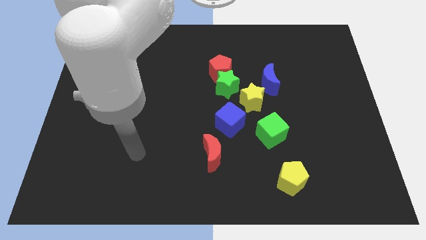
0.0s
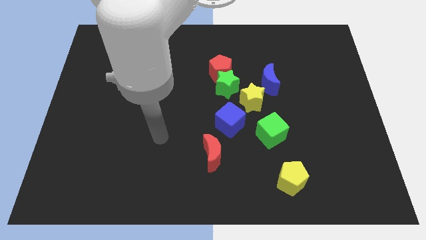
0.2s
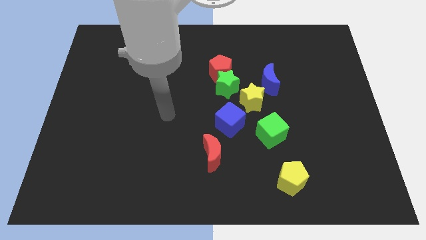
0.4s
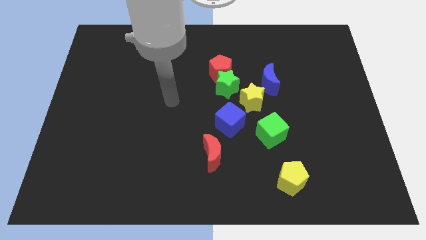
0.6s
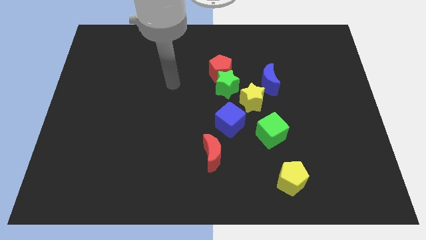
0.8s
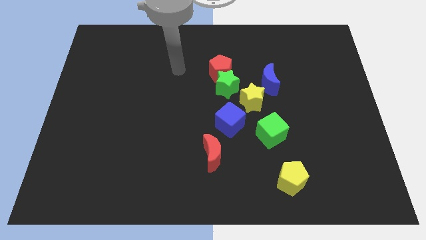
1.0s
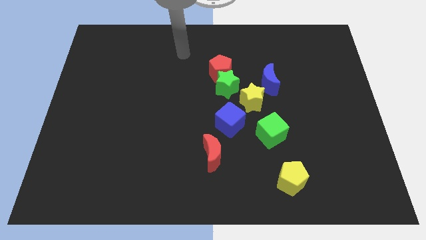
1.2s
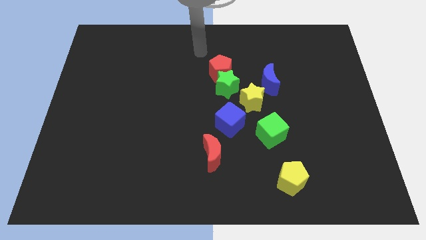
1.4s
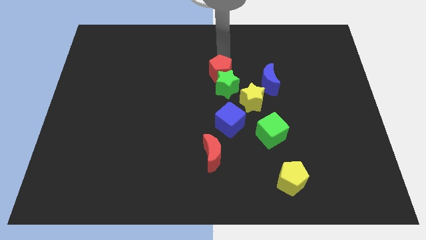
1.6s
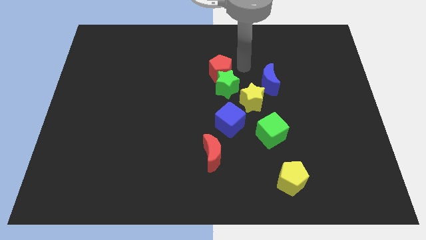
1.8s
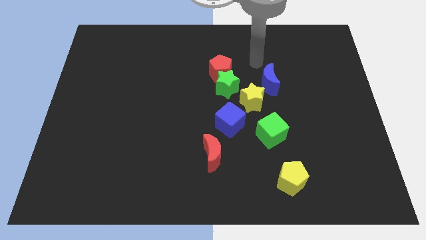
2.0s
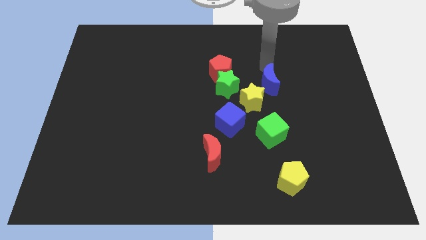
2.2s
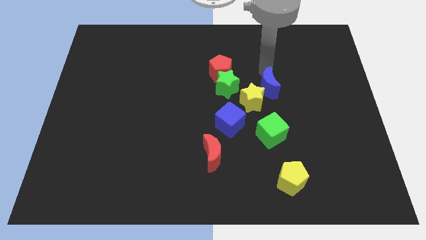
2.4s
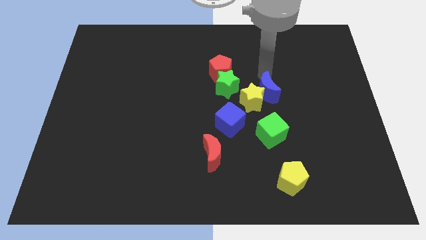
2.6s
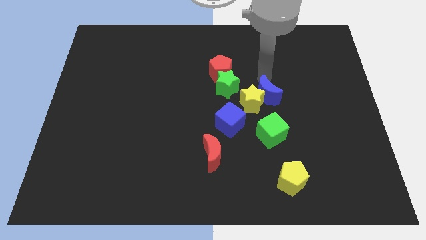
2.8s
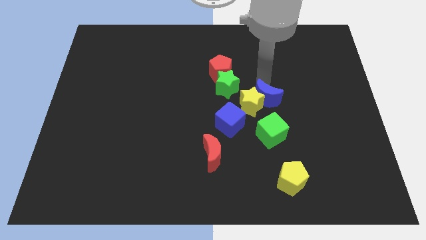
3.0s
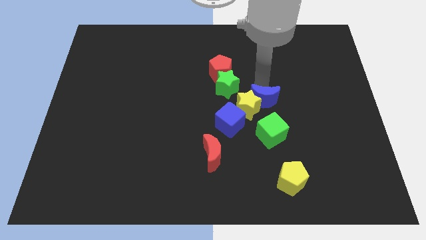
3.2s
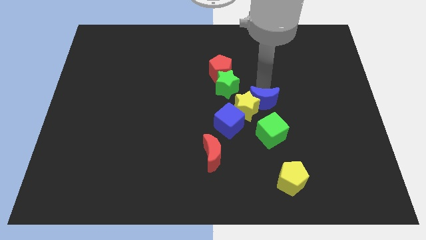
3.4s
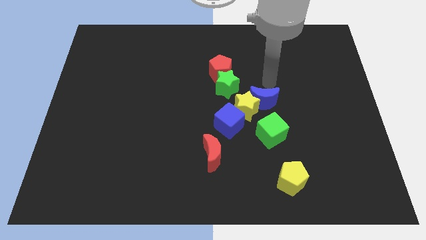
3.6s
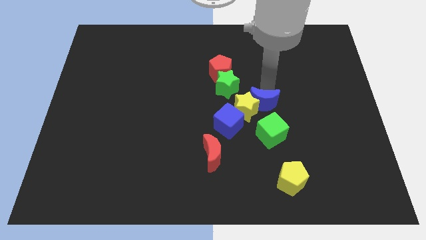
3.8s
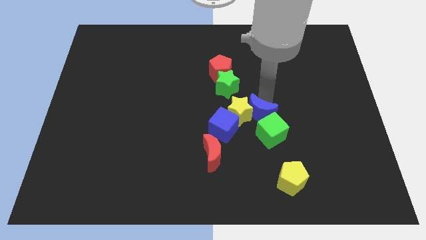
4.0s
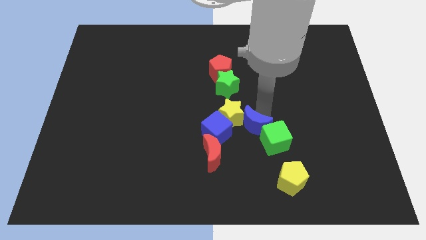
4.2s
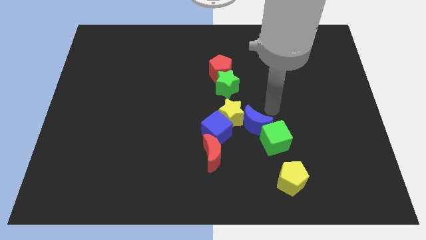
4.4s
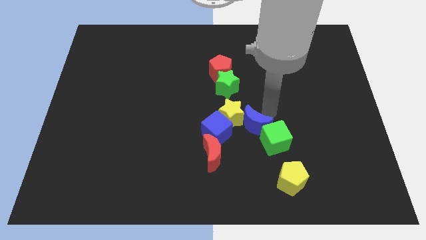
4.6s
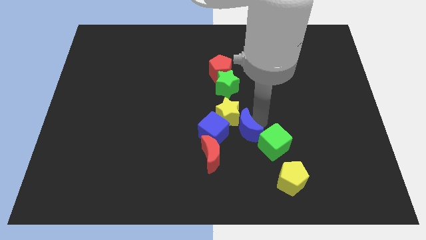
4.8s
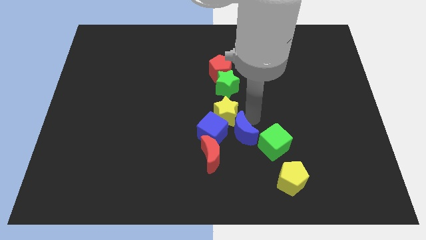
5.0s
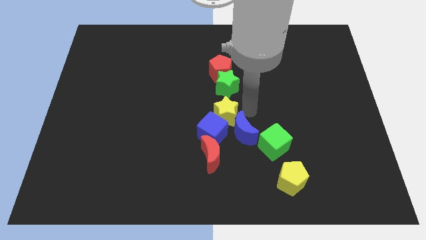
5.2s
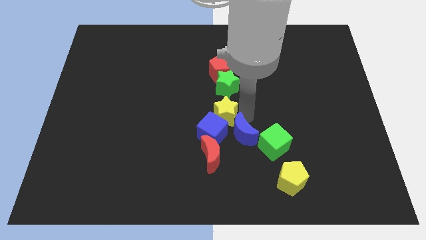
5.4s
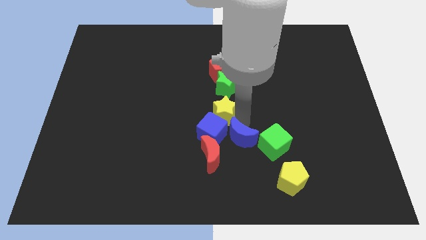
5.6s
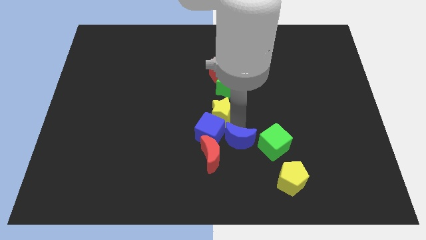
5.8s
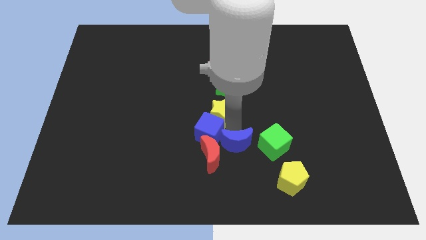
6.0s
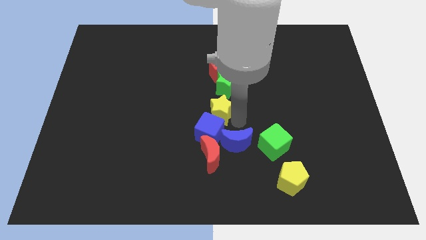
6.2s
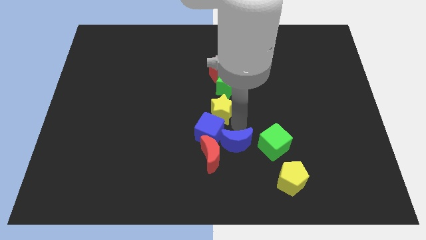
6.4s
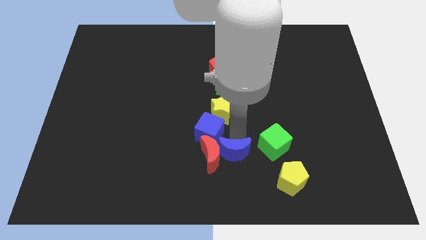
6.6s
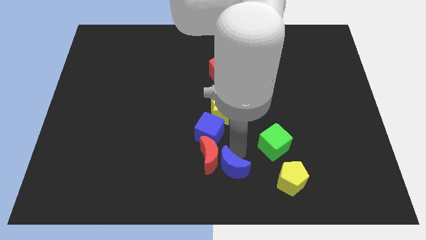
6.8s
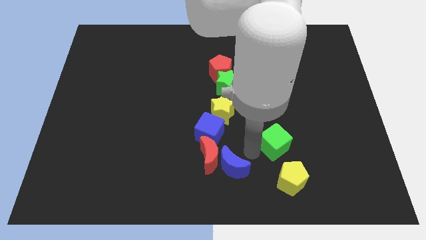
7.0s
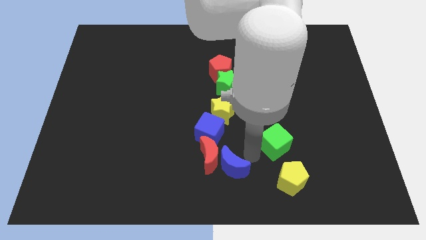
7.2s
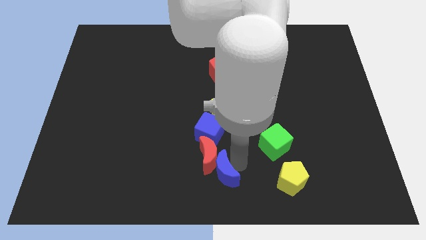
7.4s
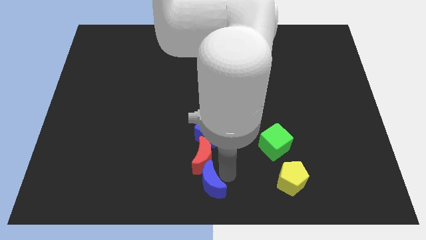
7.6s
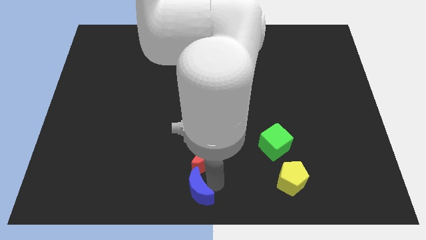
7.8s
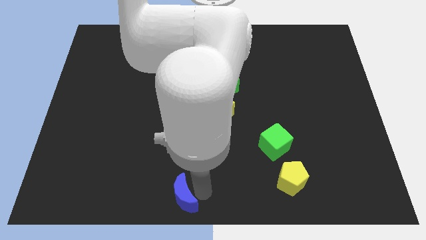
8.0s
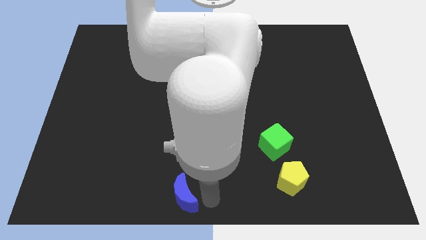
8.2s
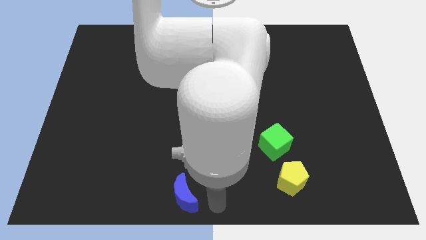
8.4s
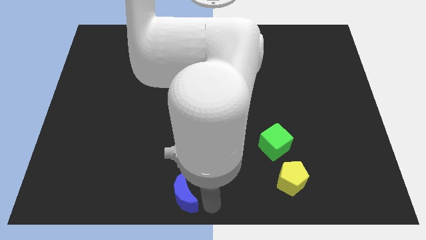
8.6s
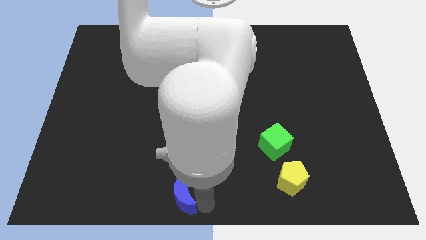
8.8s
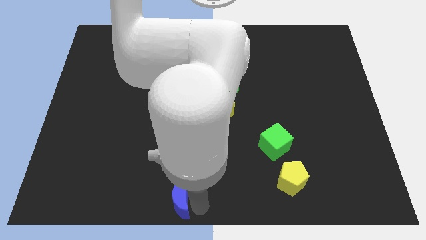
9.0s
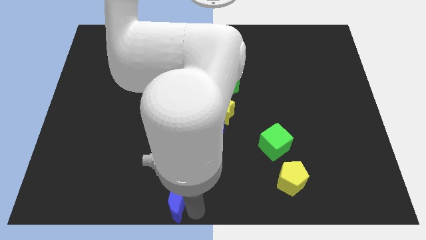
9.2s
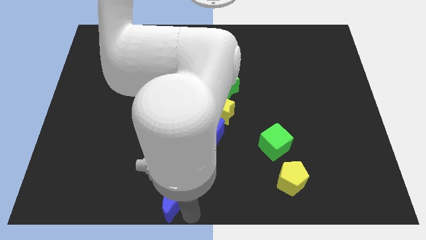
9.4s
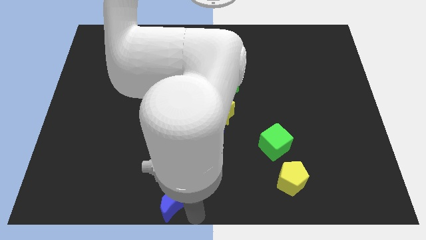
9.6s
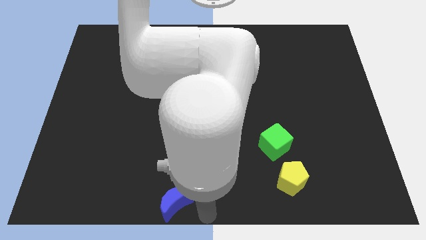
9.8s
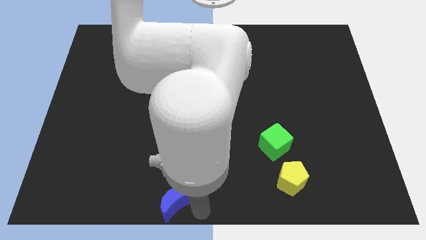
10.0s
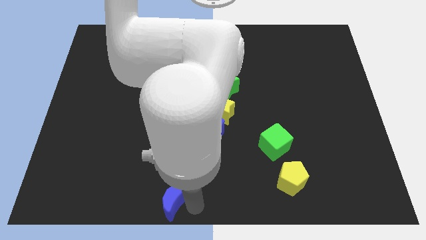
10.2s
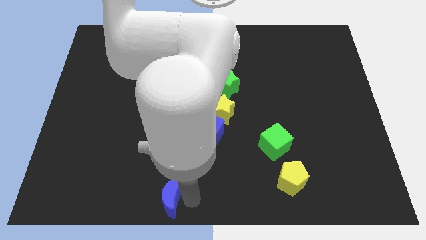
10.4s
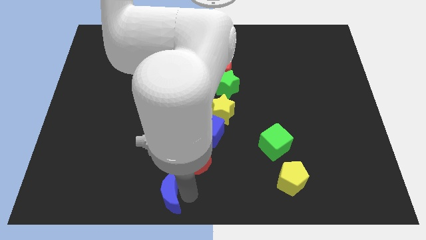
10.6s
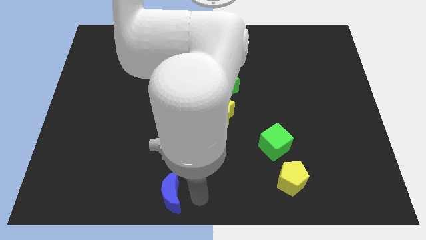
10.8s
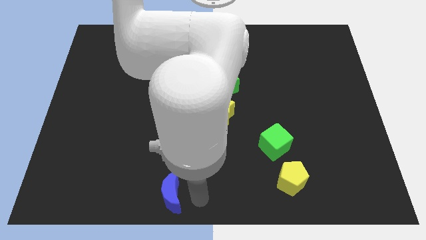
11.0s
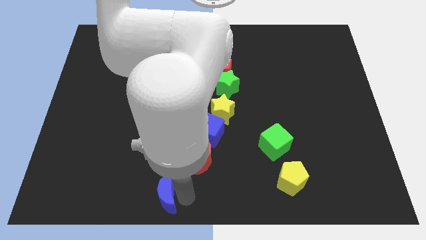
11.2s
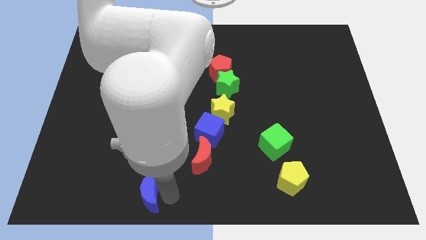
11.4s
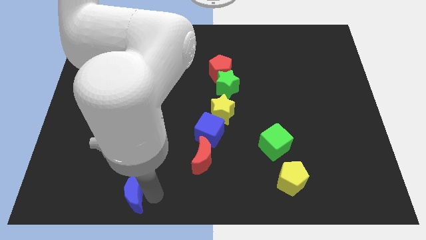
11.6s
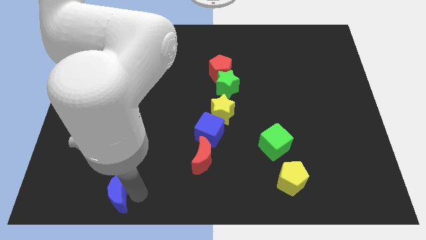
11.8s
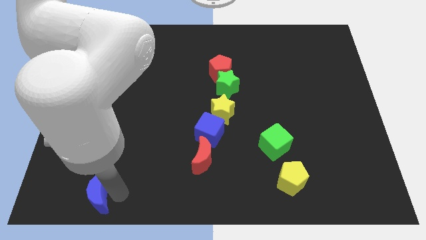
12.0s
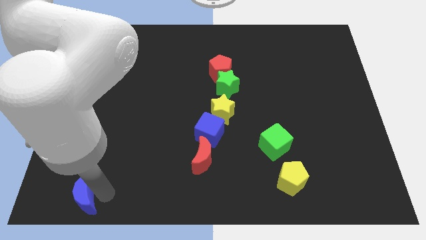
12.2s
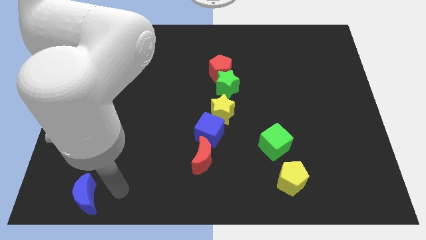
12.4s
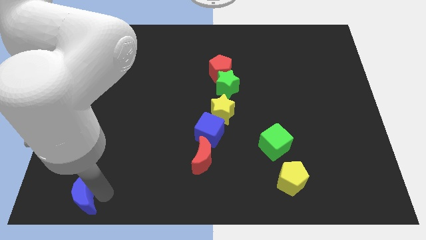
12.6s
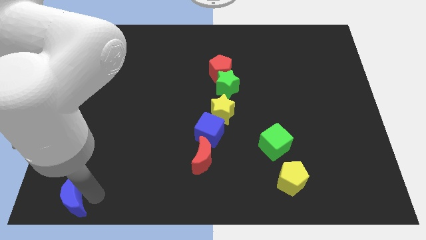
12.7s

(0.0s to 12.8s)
move the blue moon to the lower left corner
